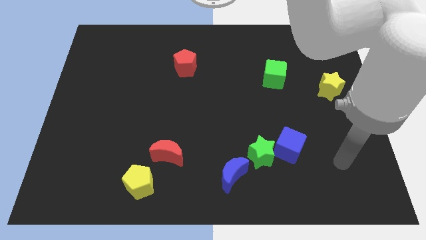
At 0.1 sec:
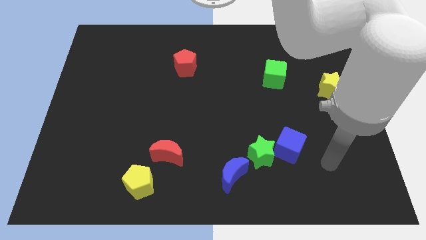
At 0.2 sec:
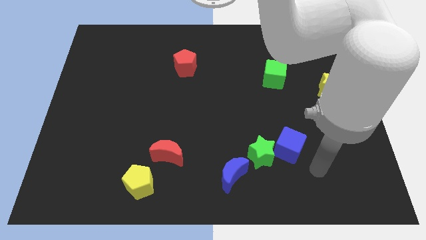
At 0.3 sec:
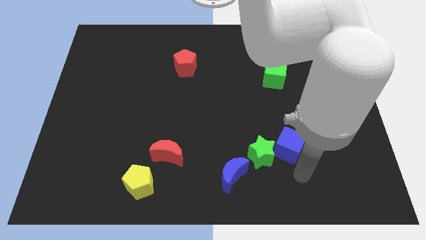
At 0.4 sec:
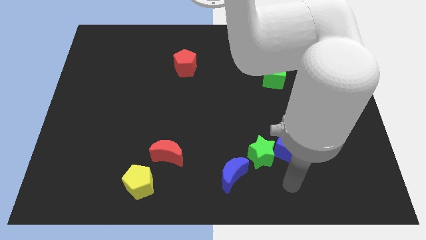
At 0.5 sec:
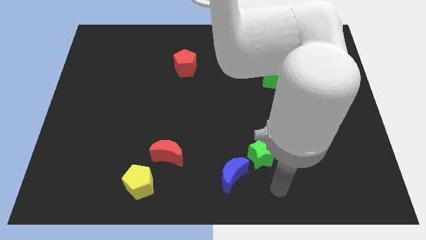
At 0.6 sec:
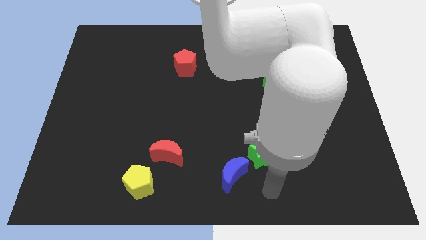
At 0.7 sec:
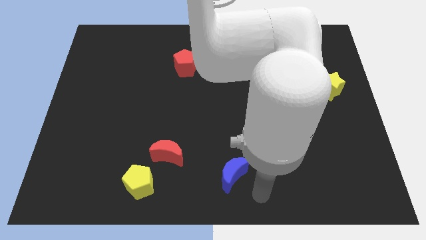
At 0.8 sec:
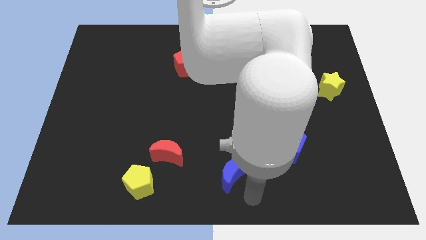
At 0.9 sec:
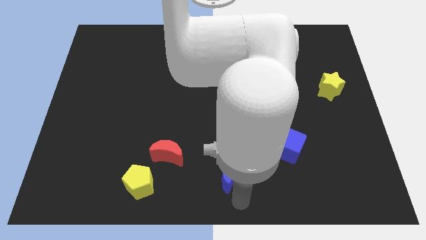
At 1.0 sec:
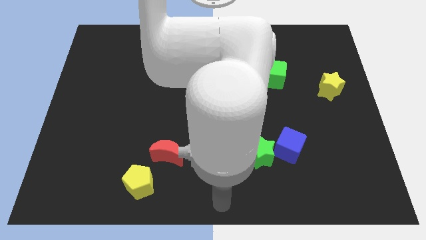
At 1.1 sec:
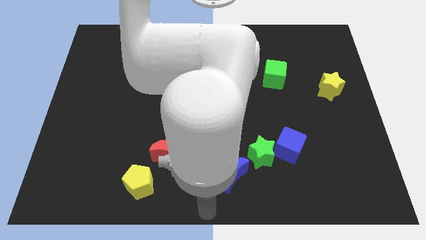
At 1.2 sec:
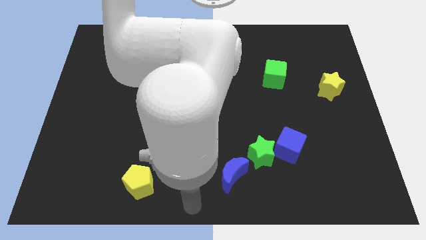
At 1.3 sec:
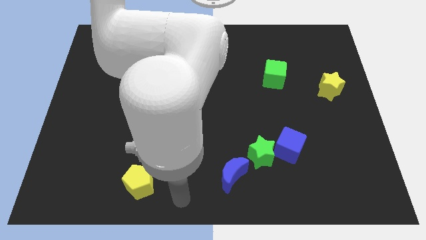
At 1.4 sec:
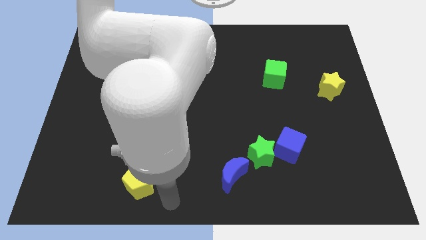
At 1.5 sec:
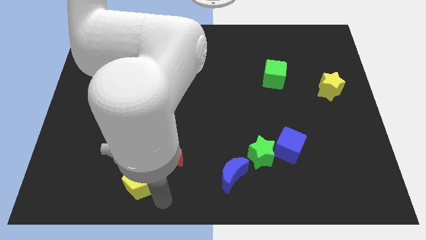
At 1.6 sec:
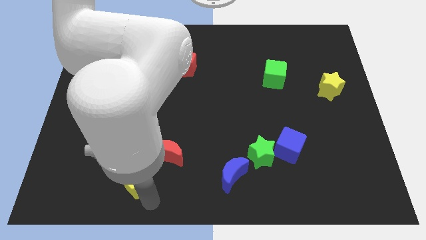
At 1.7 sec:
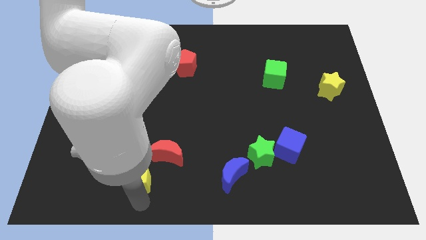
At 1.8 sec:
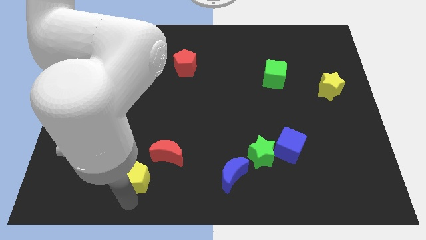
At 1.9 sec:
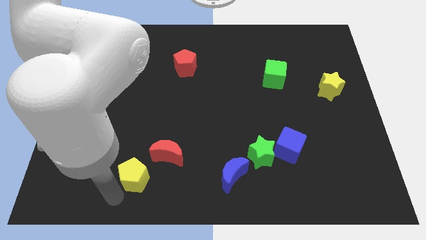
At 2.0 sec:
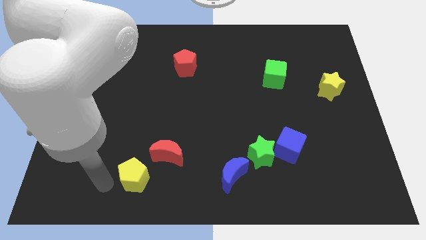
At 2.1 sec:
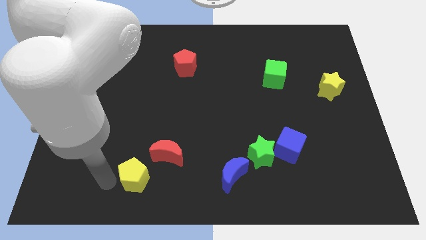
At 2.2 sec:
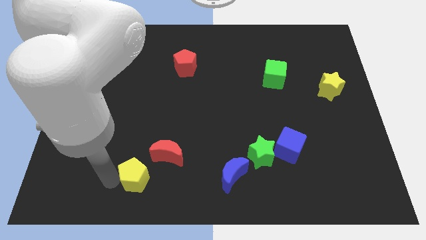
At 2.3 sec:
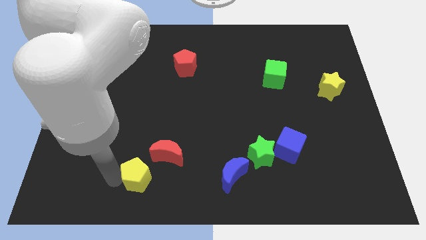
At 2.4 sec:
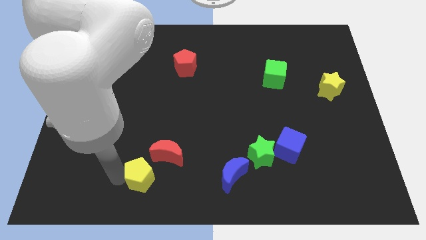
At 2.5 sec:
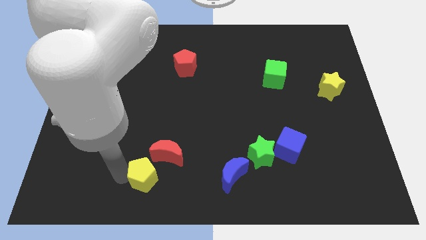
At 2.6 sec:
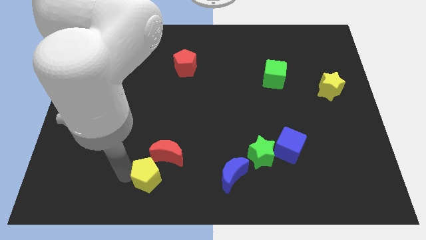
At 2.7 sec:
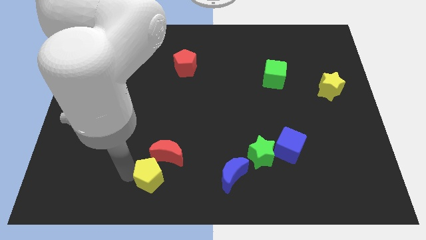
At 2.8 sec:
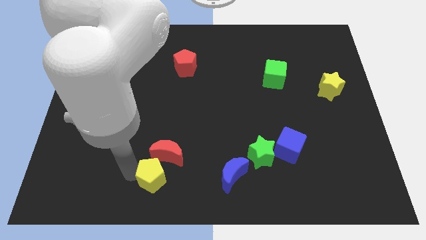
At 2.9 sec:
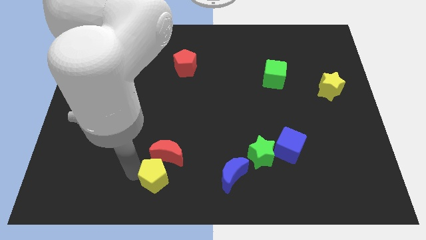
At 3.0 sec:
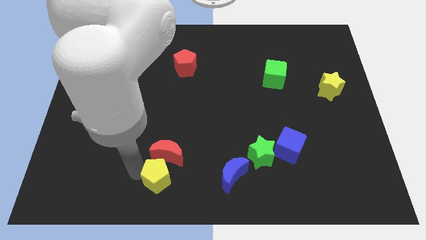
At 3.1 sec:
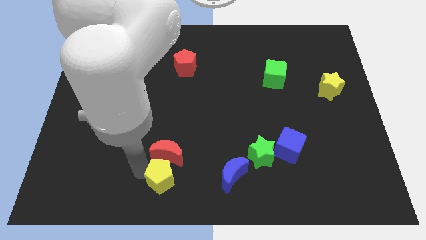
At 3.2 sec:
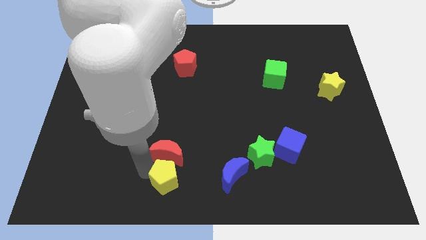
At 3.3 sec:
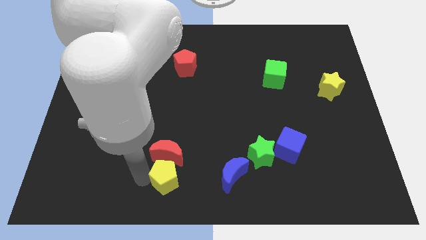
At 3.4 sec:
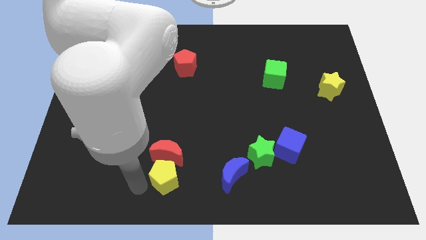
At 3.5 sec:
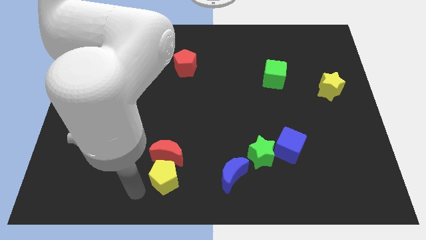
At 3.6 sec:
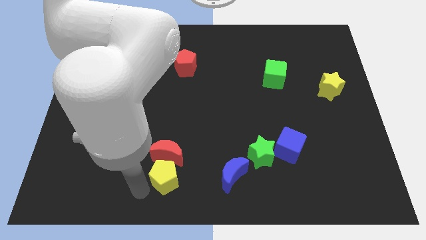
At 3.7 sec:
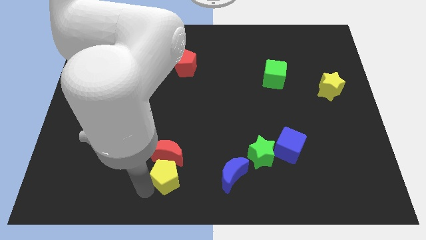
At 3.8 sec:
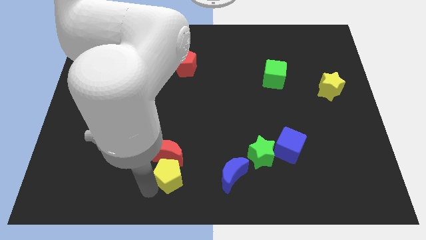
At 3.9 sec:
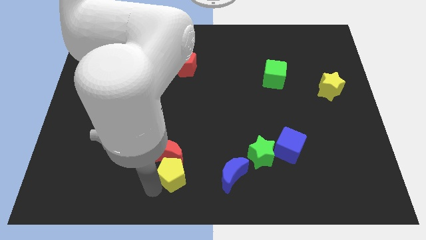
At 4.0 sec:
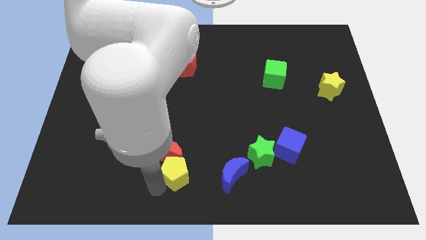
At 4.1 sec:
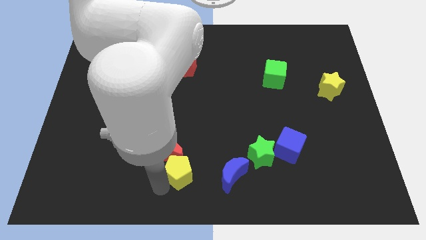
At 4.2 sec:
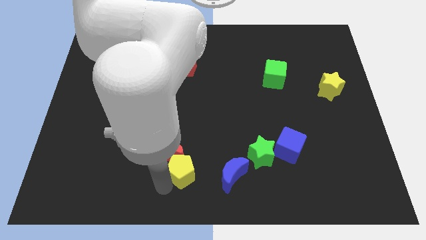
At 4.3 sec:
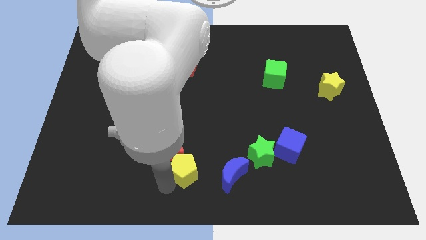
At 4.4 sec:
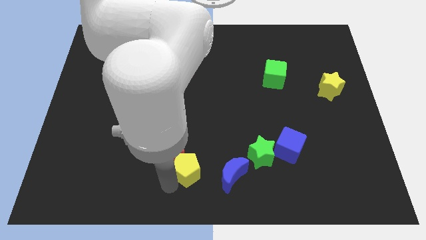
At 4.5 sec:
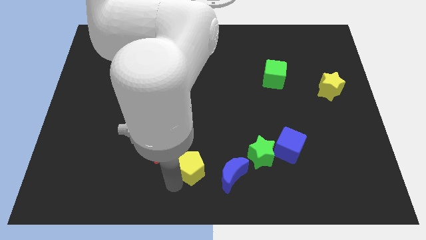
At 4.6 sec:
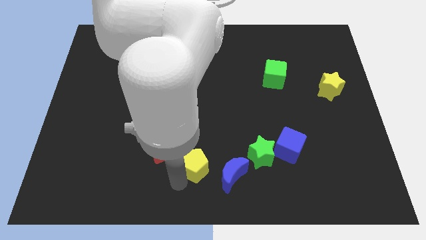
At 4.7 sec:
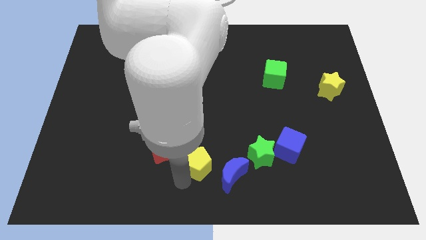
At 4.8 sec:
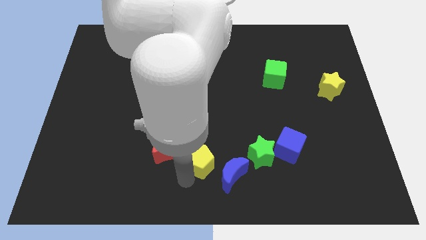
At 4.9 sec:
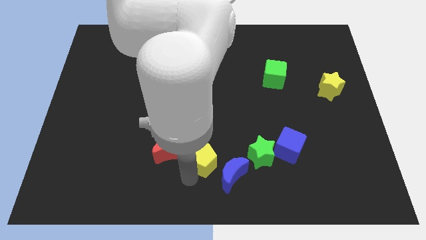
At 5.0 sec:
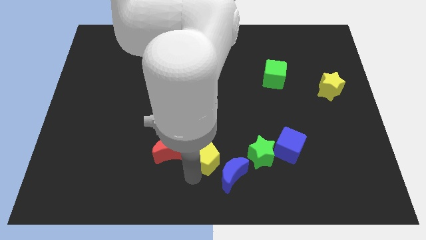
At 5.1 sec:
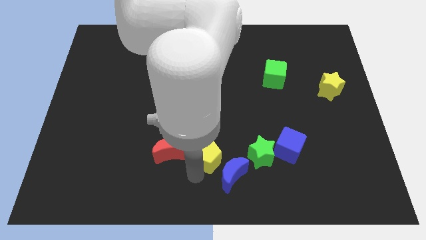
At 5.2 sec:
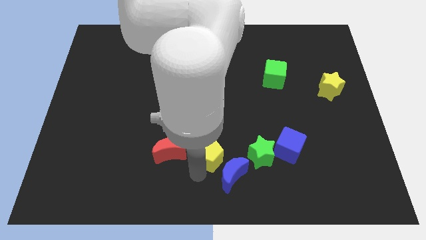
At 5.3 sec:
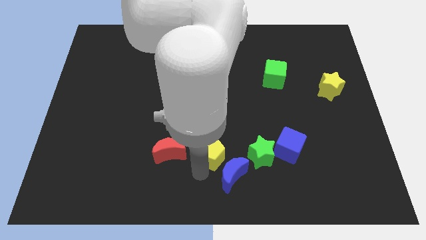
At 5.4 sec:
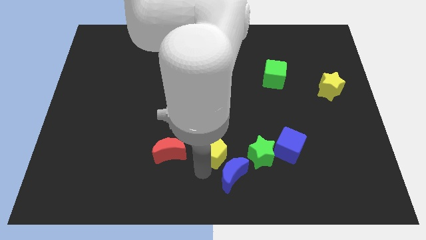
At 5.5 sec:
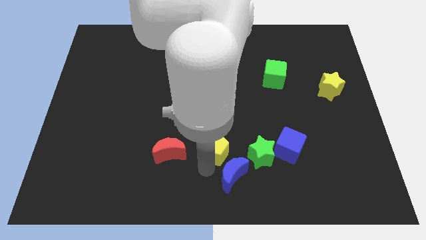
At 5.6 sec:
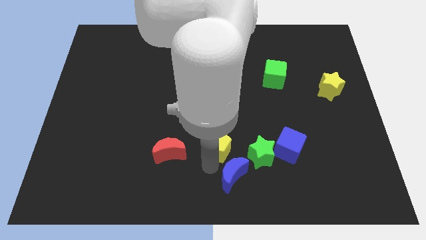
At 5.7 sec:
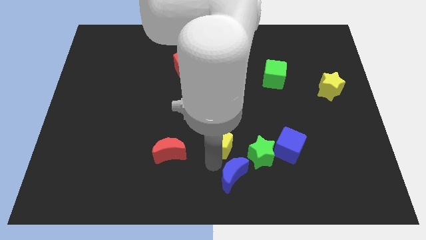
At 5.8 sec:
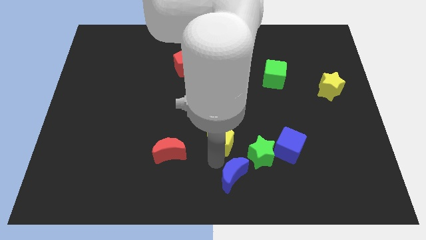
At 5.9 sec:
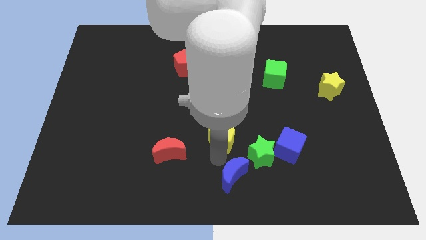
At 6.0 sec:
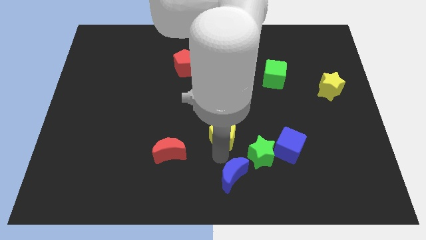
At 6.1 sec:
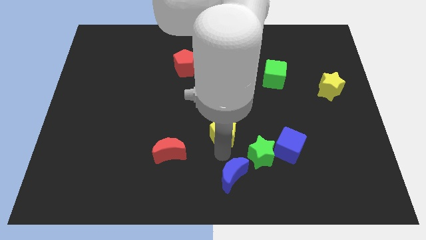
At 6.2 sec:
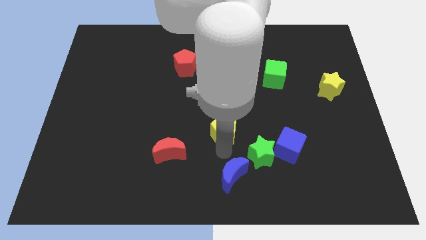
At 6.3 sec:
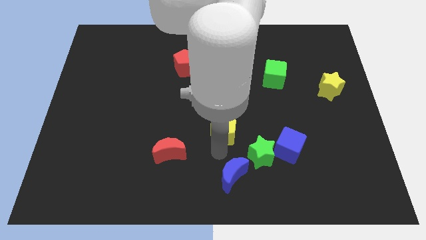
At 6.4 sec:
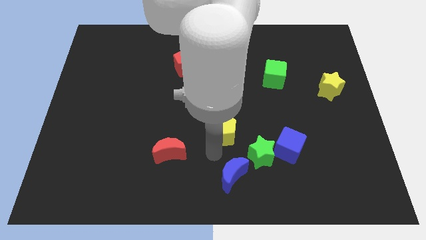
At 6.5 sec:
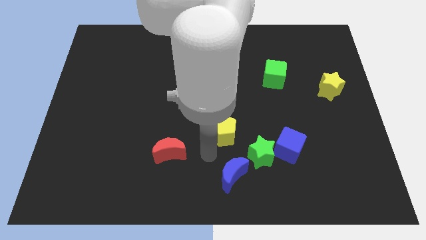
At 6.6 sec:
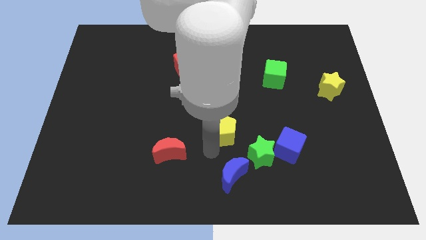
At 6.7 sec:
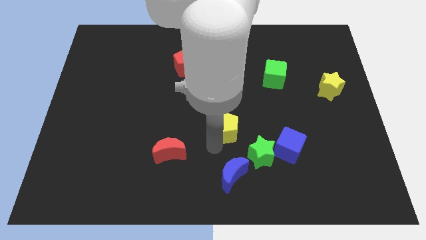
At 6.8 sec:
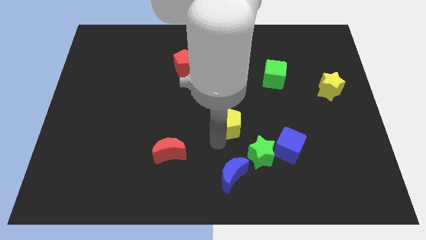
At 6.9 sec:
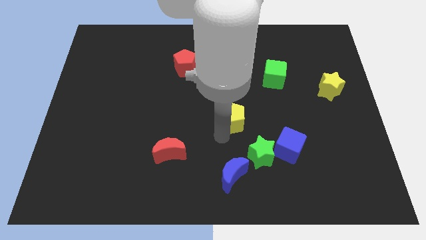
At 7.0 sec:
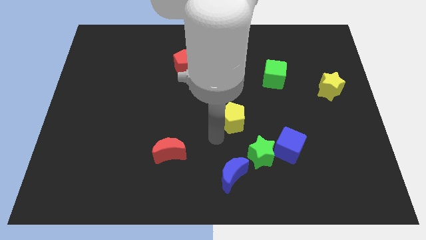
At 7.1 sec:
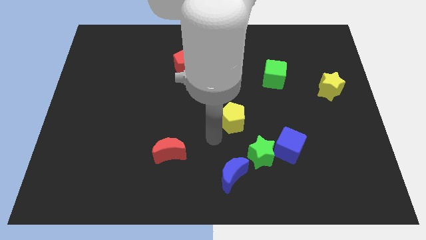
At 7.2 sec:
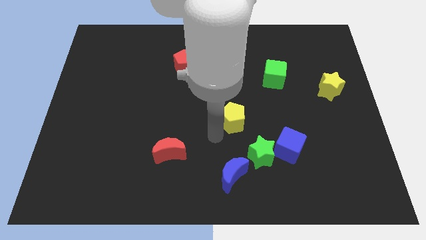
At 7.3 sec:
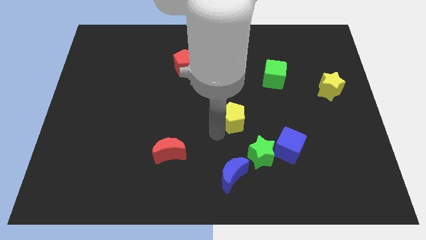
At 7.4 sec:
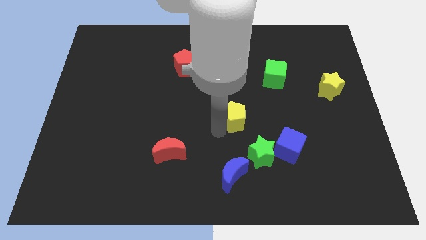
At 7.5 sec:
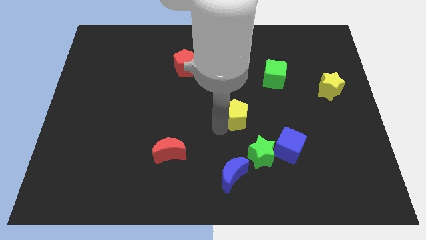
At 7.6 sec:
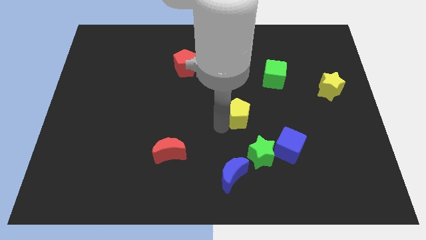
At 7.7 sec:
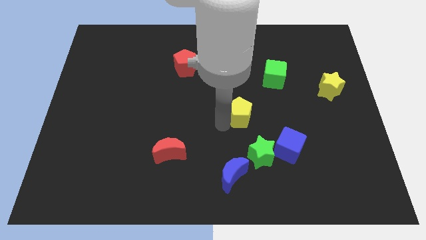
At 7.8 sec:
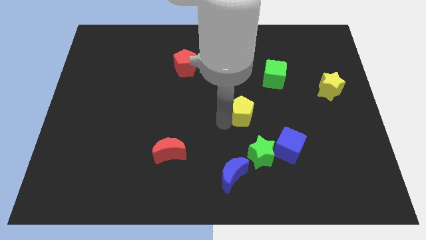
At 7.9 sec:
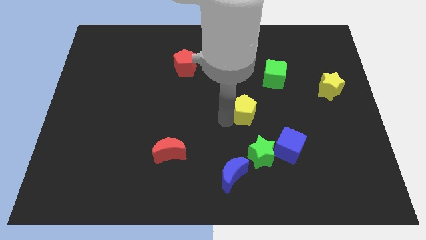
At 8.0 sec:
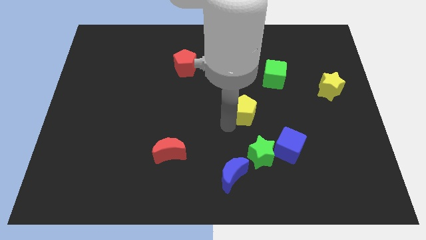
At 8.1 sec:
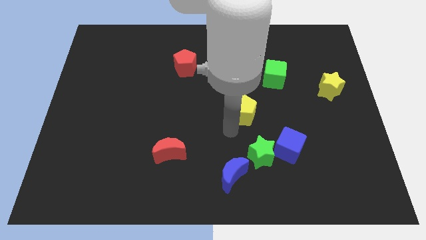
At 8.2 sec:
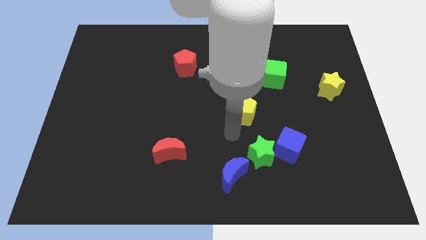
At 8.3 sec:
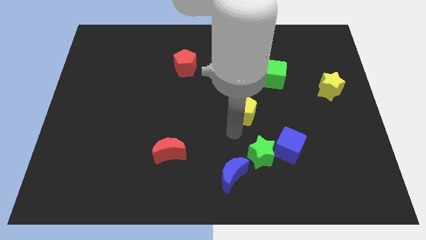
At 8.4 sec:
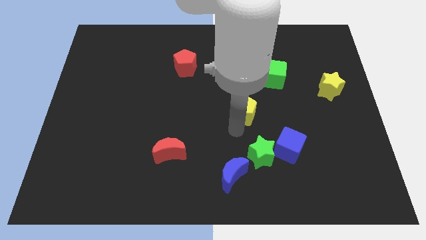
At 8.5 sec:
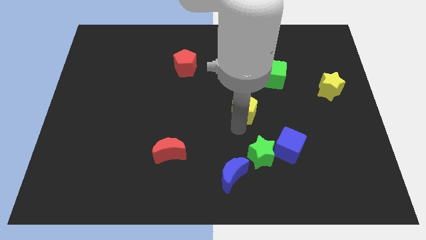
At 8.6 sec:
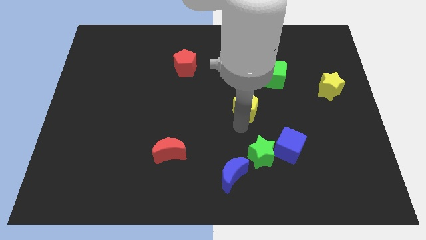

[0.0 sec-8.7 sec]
slide the yellow pentagon to the bottom left of the green cube
